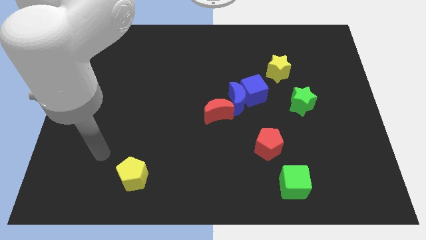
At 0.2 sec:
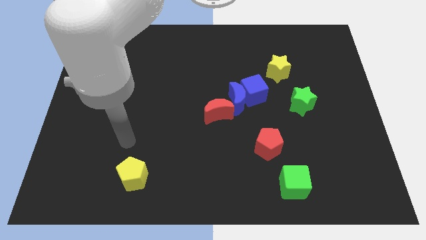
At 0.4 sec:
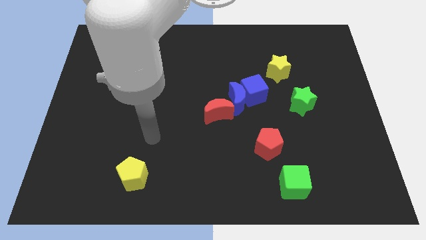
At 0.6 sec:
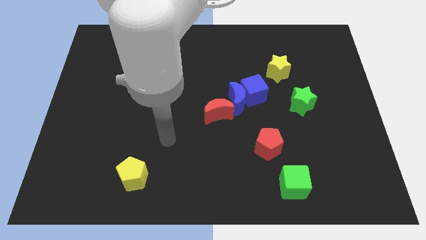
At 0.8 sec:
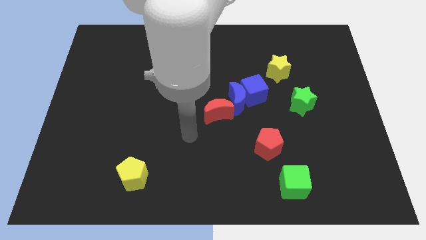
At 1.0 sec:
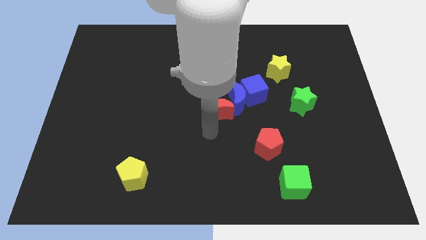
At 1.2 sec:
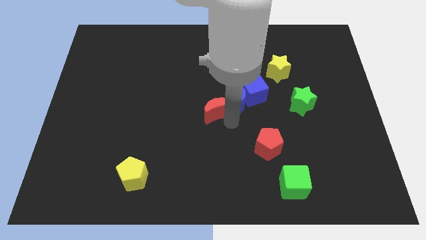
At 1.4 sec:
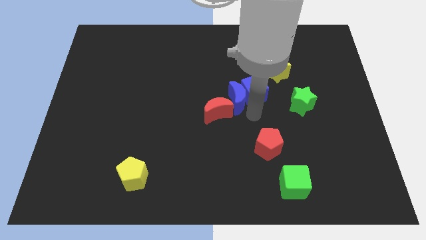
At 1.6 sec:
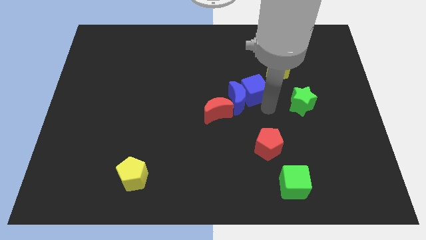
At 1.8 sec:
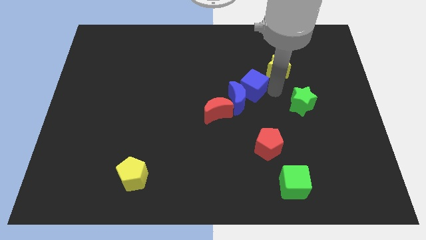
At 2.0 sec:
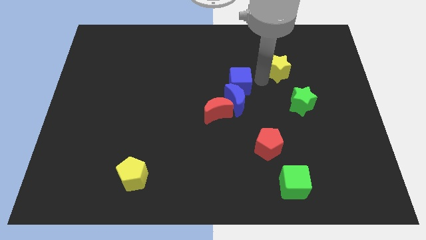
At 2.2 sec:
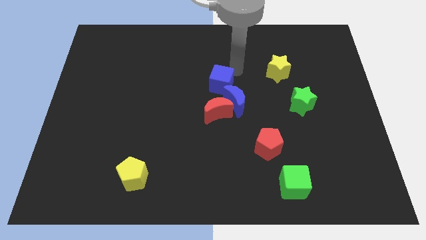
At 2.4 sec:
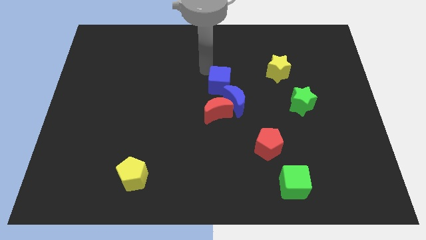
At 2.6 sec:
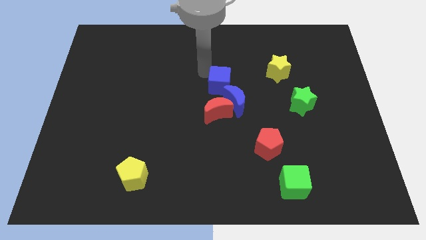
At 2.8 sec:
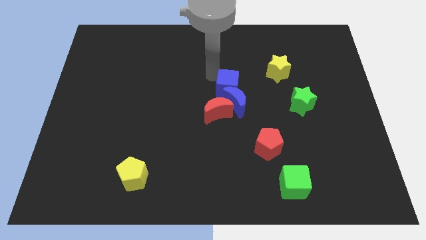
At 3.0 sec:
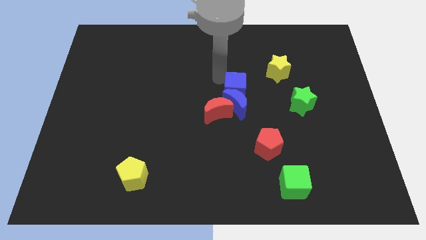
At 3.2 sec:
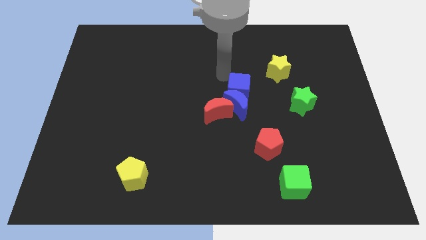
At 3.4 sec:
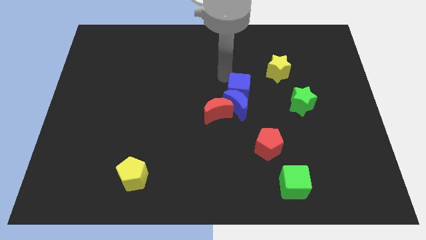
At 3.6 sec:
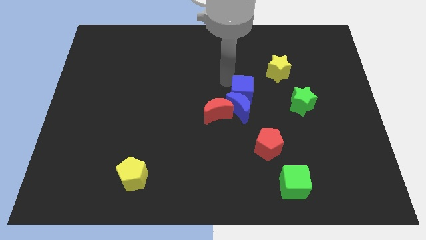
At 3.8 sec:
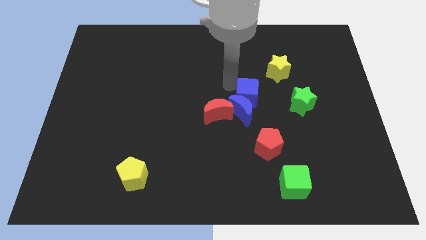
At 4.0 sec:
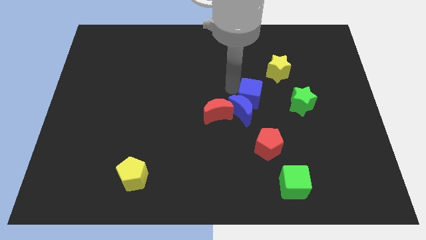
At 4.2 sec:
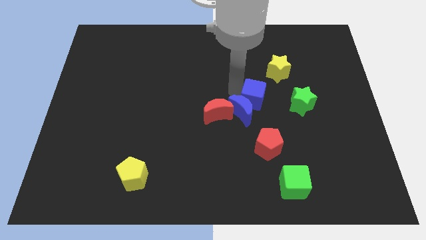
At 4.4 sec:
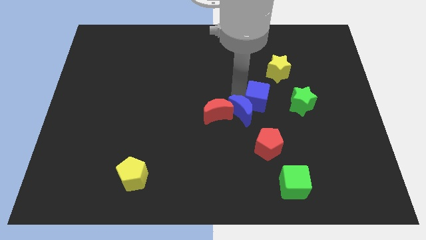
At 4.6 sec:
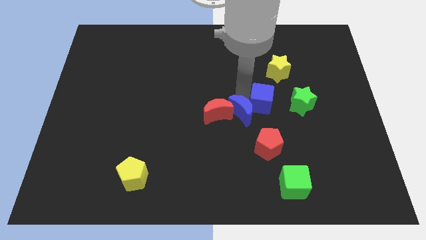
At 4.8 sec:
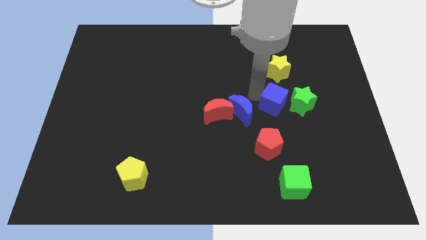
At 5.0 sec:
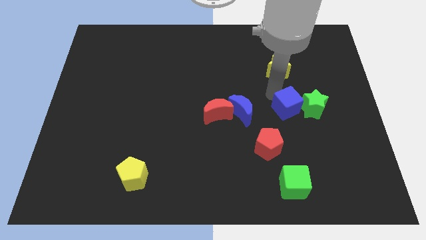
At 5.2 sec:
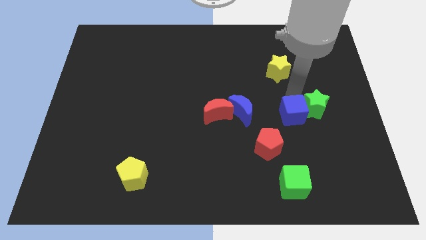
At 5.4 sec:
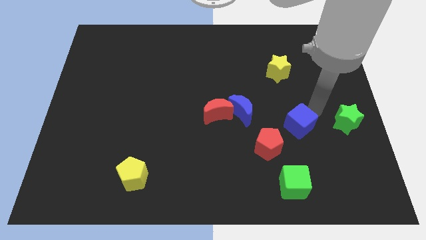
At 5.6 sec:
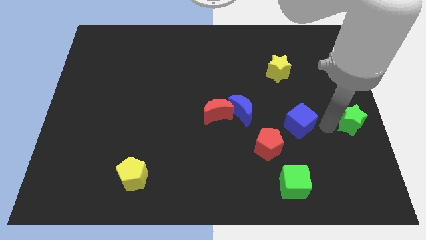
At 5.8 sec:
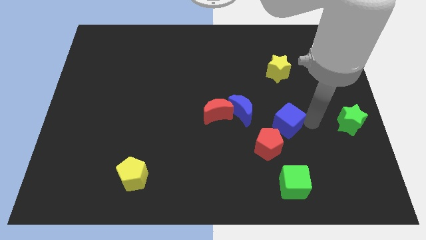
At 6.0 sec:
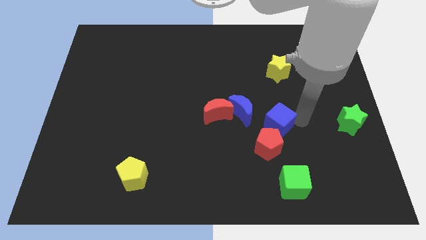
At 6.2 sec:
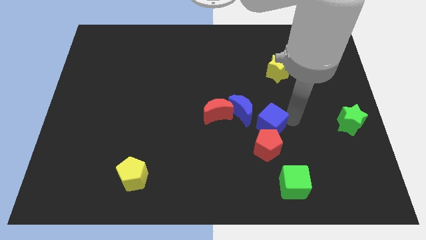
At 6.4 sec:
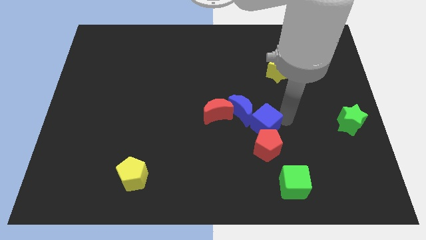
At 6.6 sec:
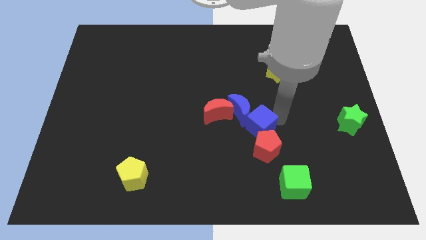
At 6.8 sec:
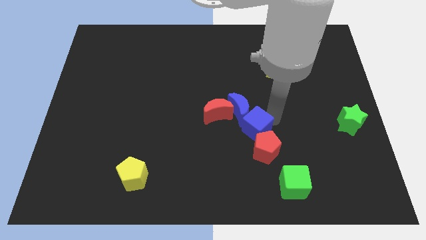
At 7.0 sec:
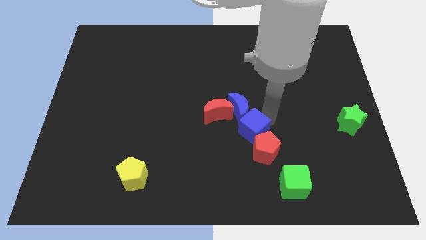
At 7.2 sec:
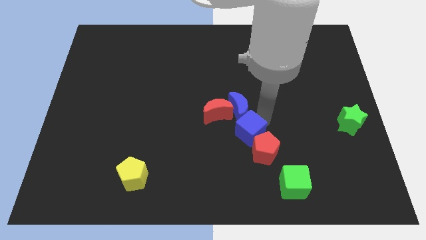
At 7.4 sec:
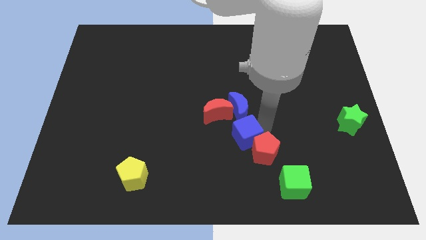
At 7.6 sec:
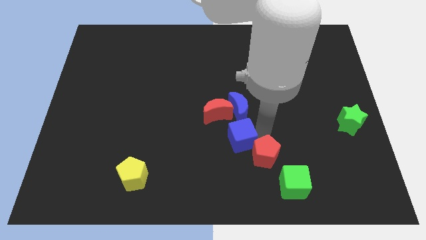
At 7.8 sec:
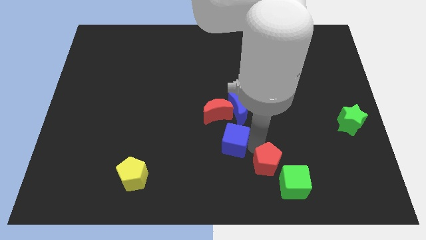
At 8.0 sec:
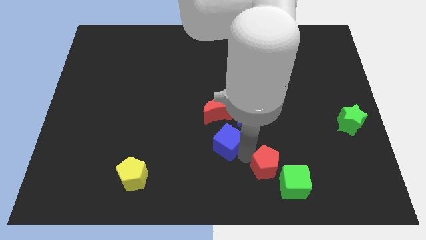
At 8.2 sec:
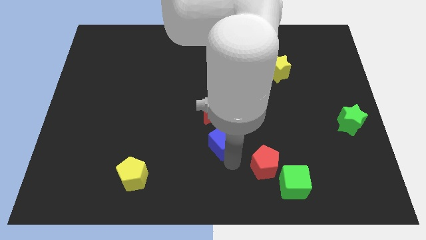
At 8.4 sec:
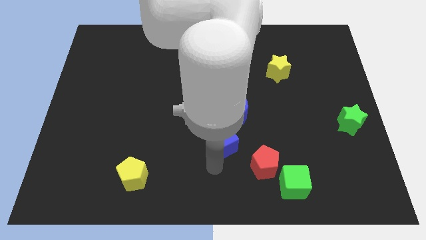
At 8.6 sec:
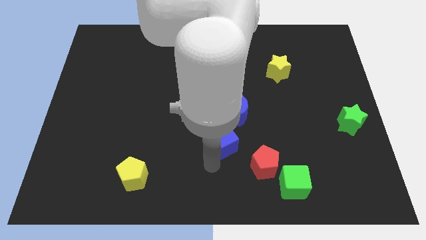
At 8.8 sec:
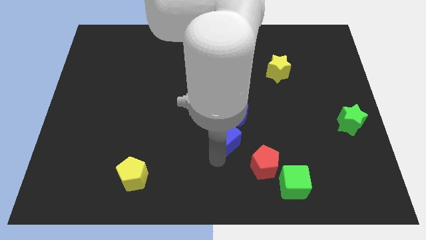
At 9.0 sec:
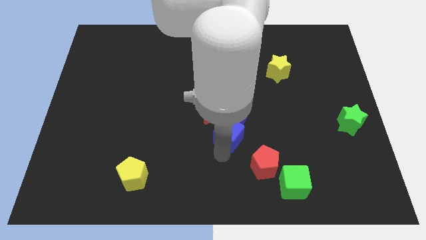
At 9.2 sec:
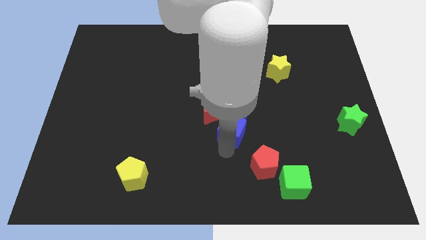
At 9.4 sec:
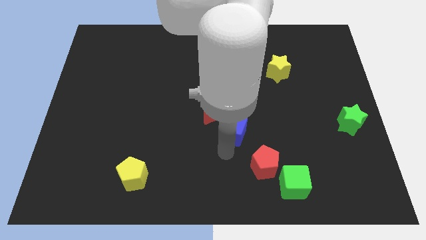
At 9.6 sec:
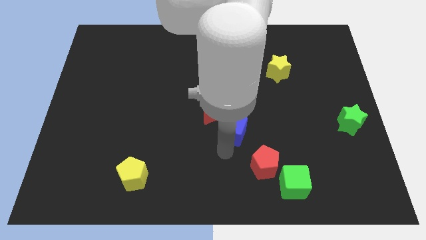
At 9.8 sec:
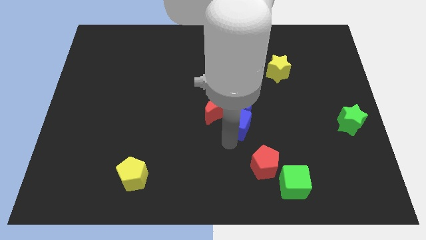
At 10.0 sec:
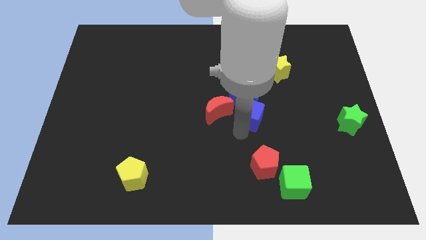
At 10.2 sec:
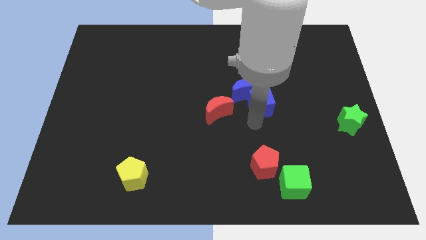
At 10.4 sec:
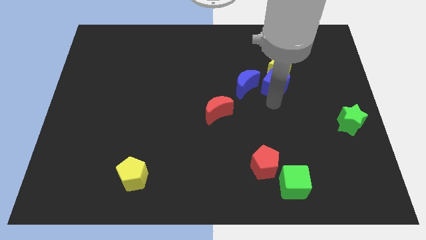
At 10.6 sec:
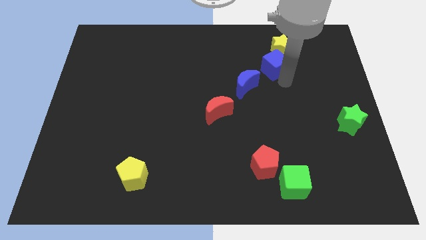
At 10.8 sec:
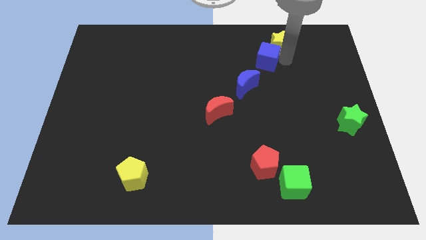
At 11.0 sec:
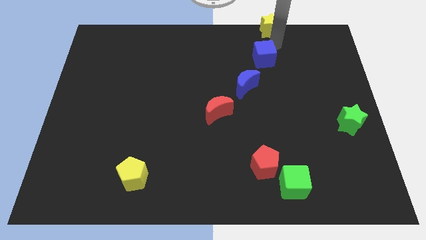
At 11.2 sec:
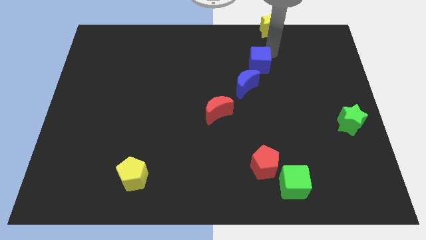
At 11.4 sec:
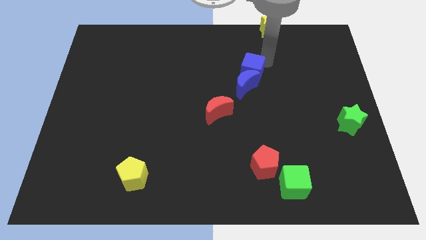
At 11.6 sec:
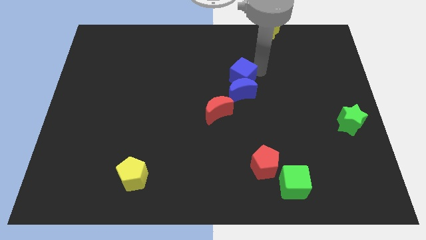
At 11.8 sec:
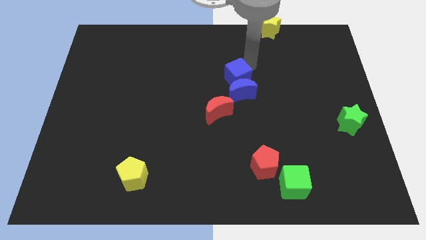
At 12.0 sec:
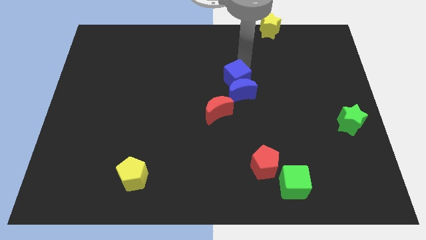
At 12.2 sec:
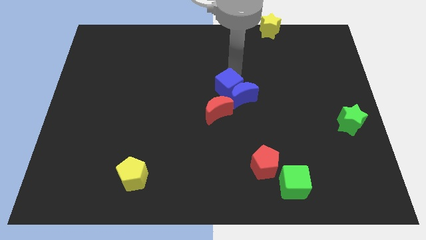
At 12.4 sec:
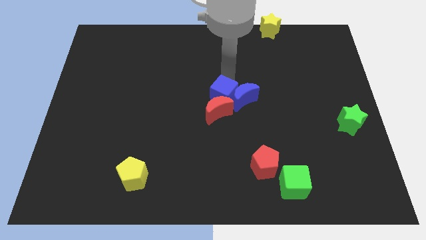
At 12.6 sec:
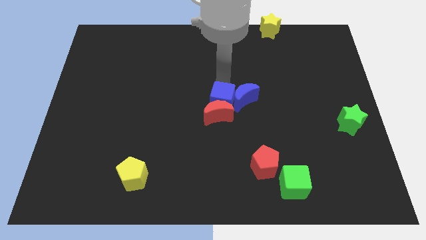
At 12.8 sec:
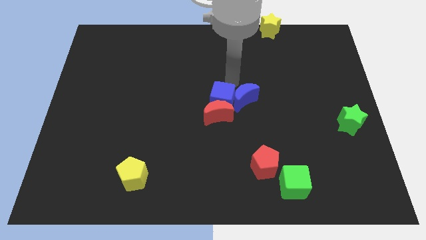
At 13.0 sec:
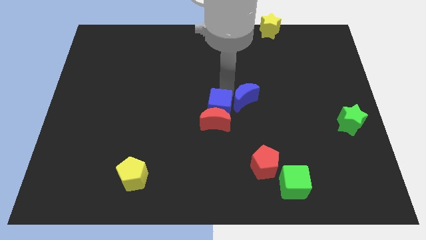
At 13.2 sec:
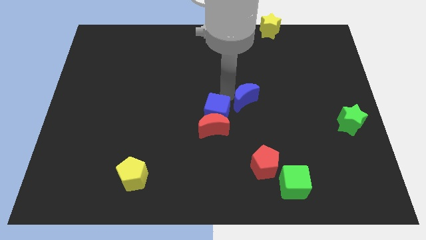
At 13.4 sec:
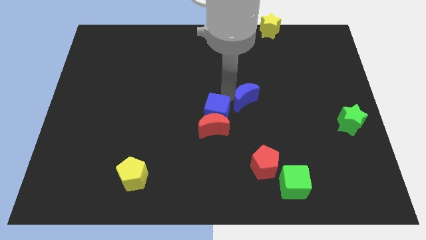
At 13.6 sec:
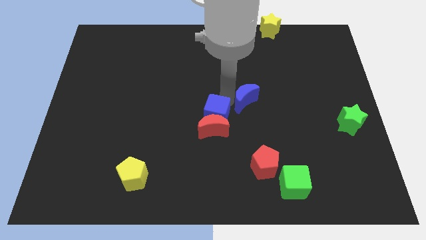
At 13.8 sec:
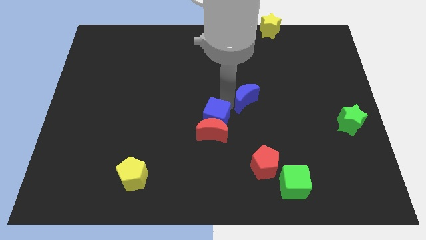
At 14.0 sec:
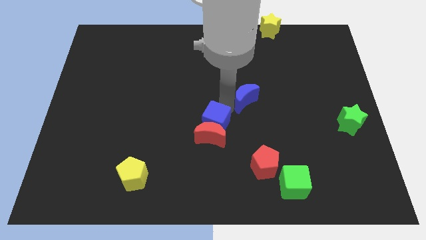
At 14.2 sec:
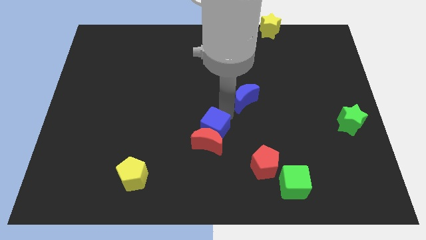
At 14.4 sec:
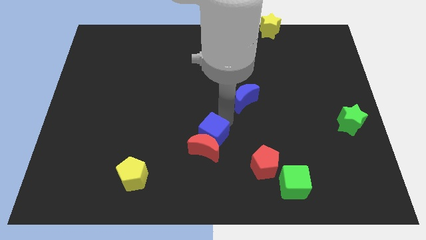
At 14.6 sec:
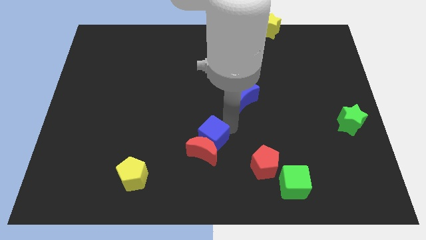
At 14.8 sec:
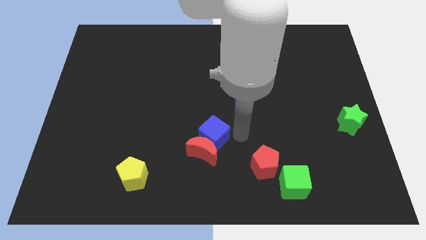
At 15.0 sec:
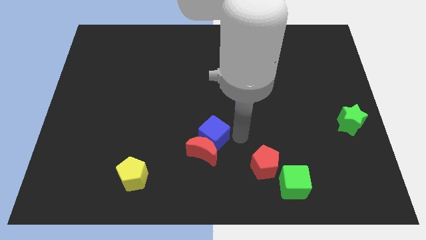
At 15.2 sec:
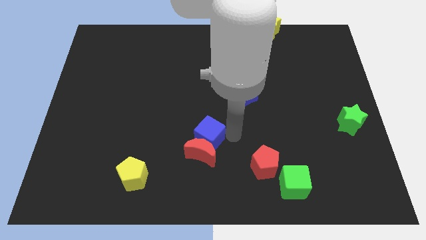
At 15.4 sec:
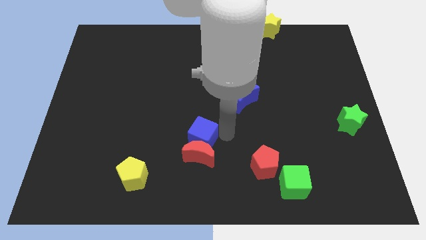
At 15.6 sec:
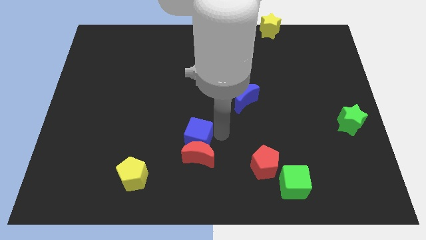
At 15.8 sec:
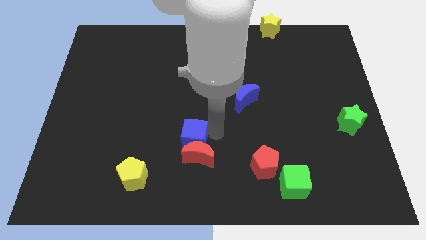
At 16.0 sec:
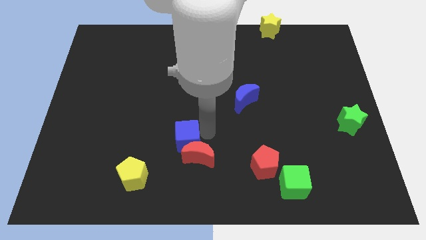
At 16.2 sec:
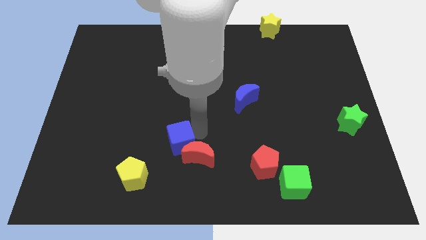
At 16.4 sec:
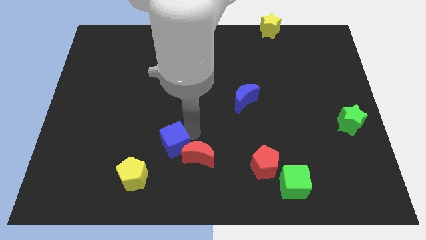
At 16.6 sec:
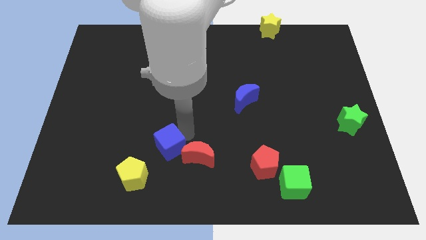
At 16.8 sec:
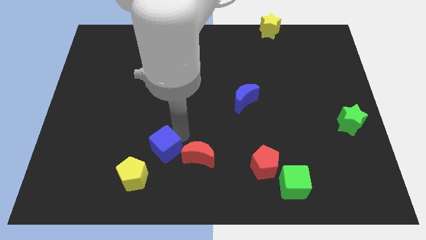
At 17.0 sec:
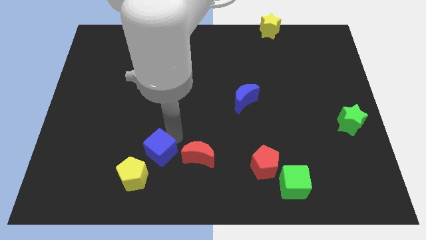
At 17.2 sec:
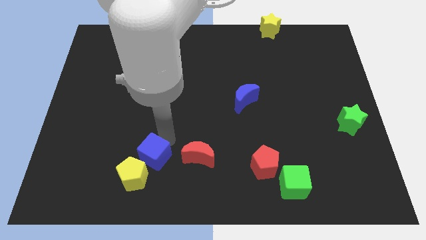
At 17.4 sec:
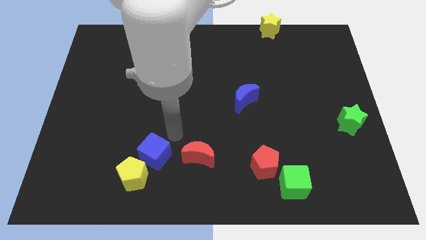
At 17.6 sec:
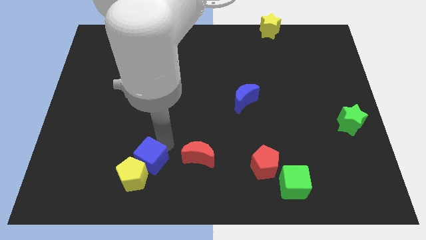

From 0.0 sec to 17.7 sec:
push the blue cube next to the yellow pentagon
